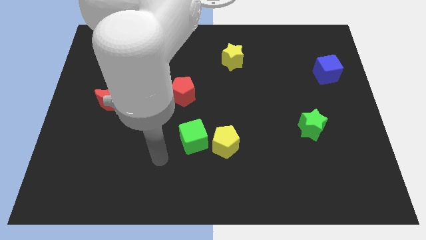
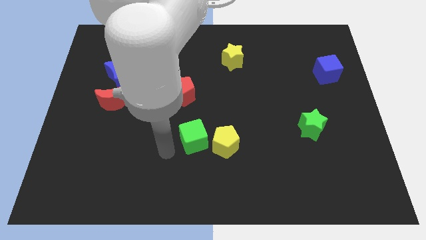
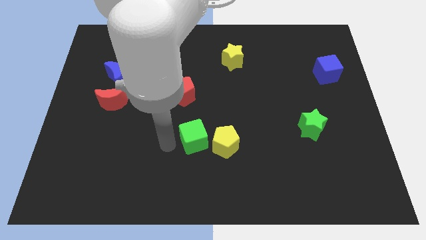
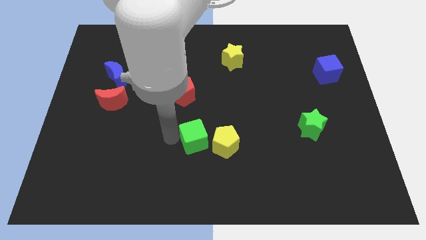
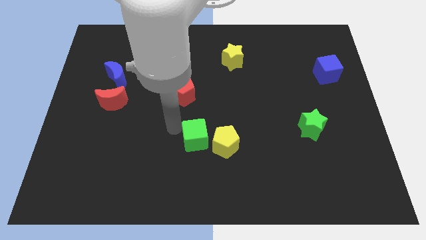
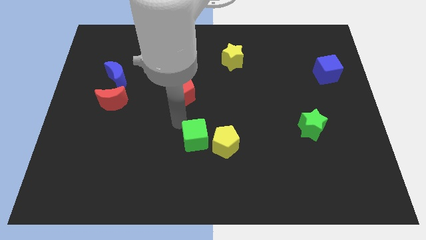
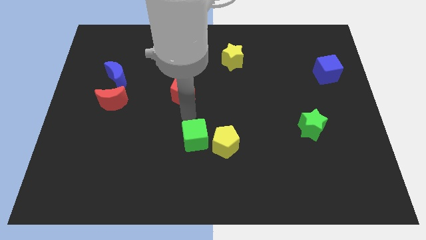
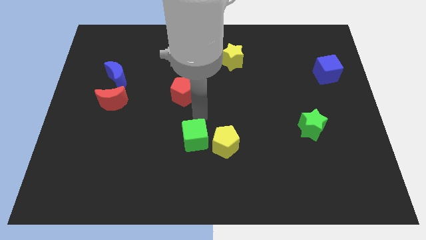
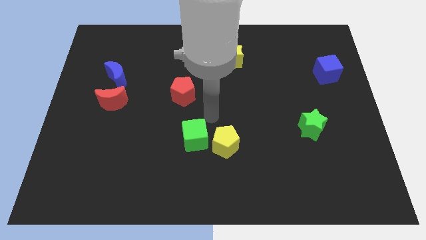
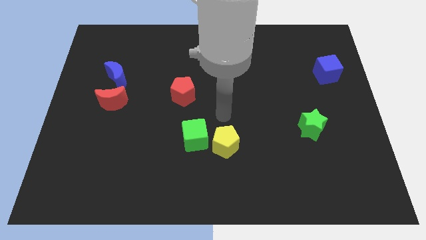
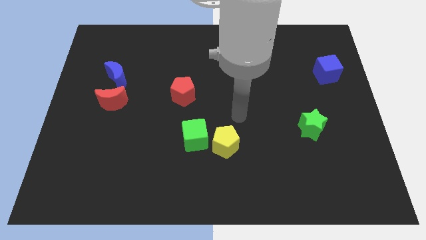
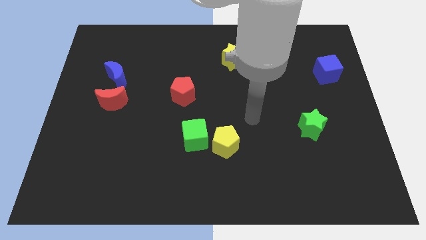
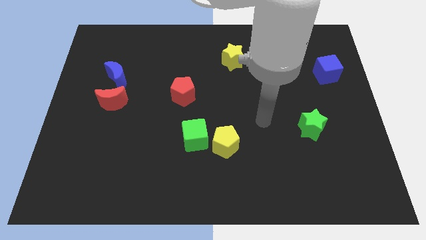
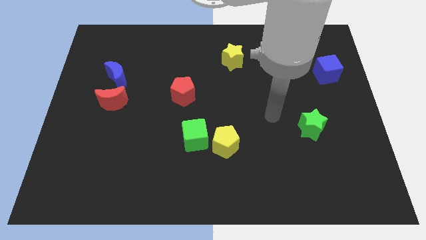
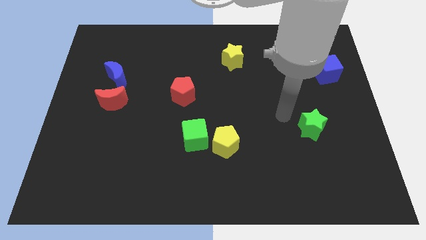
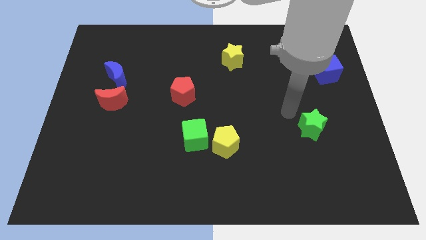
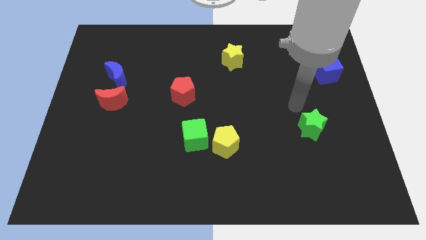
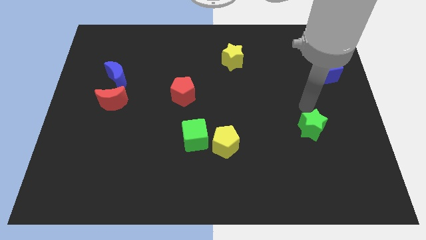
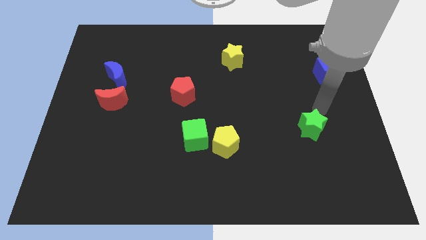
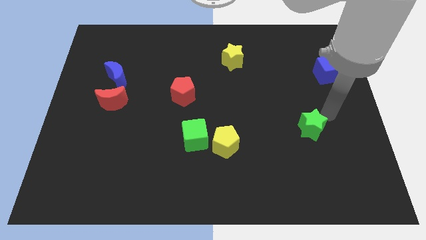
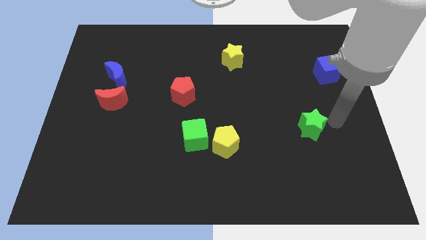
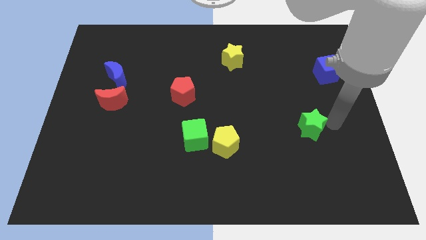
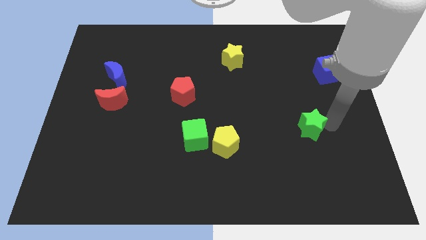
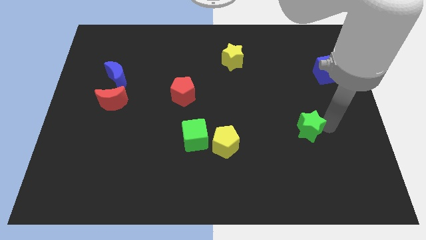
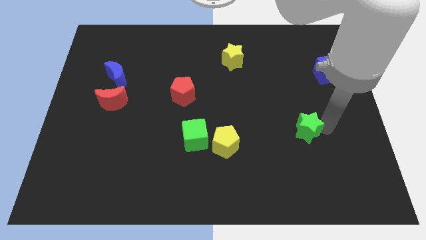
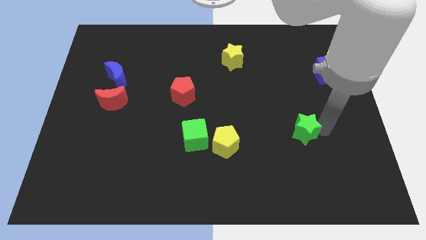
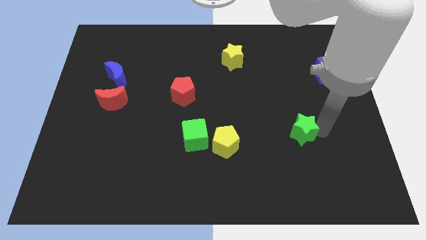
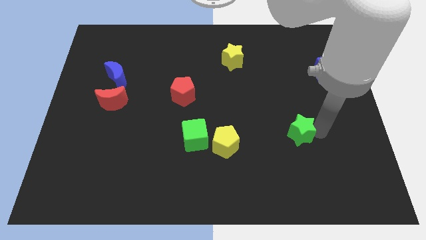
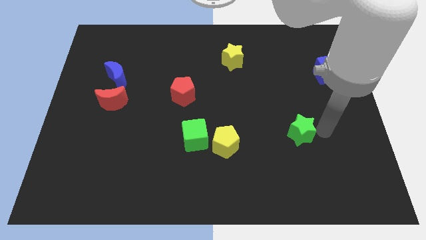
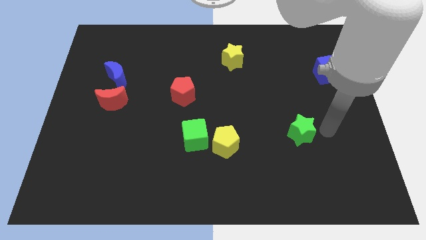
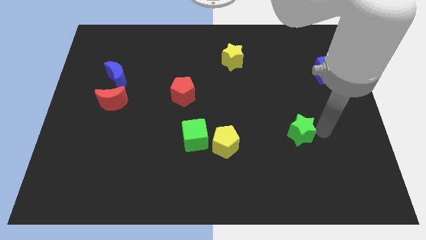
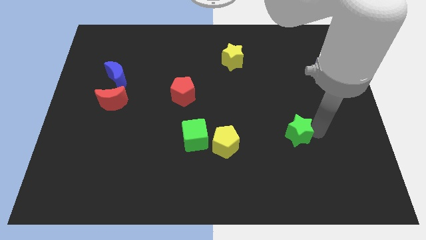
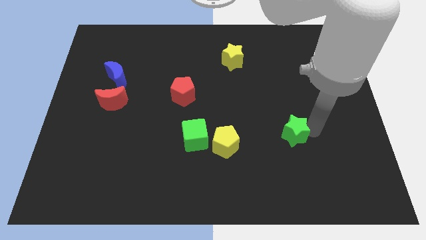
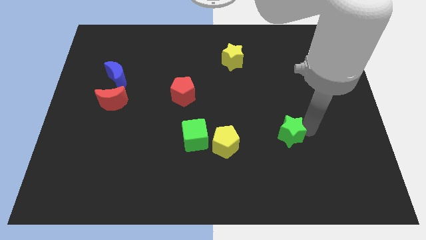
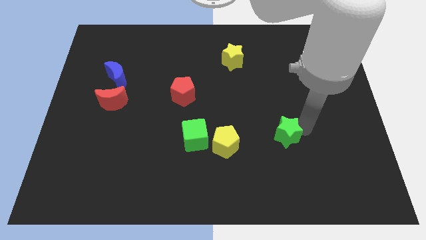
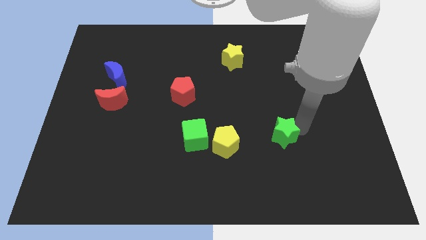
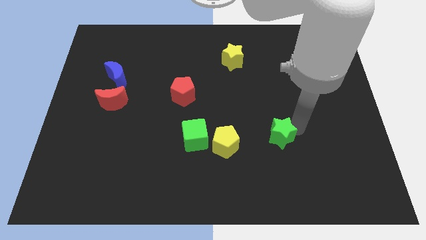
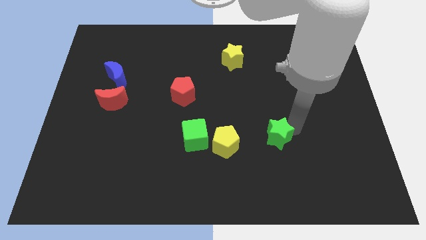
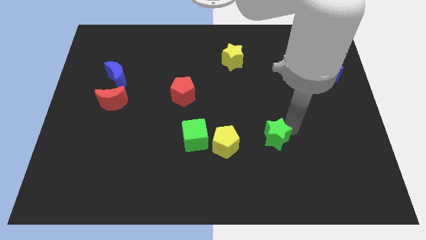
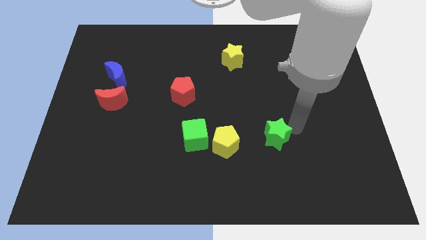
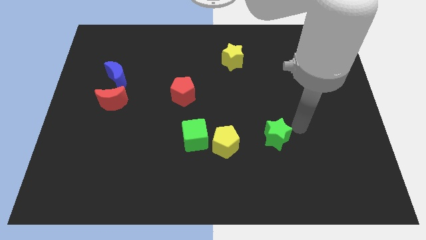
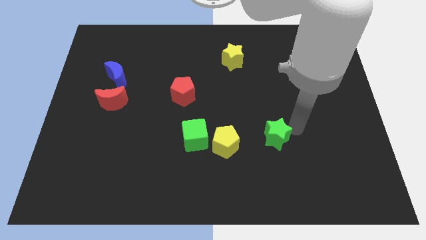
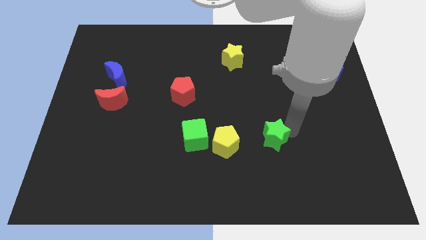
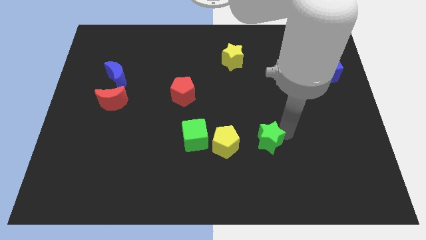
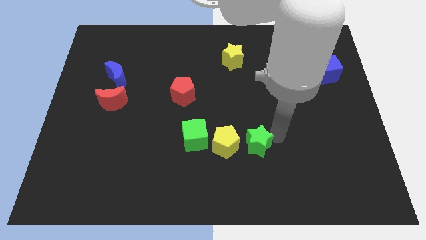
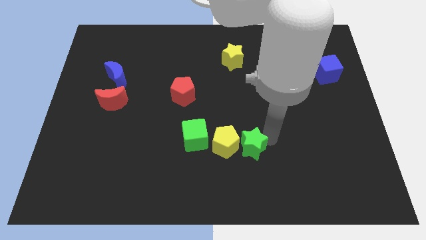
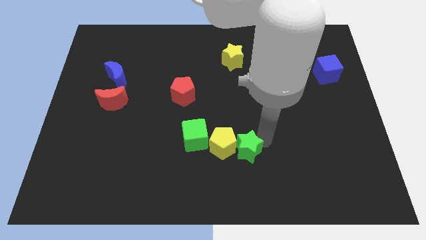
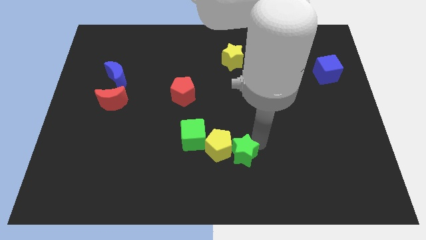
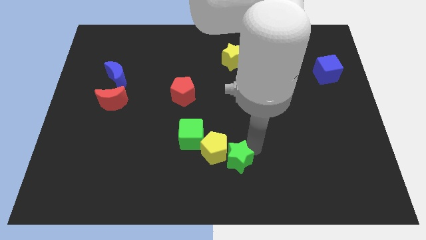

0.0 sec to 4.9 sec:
slide the green star to the bottom right side of the green cube

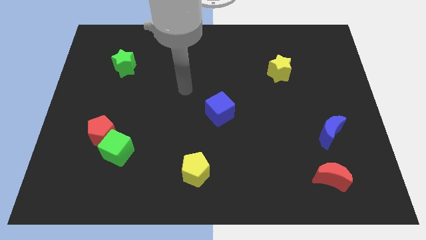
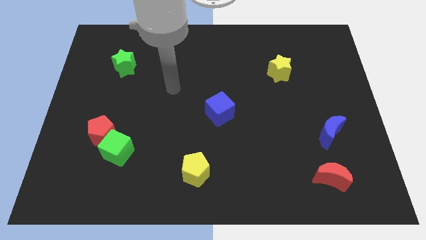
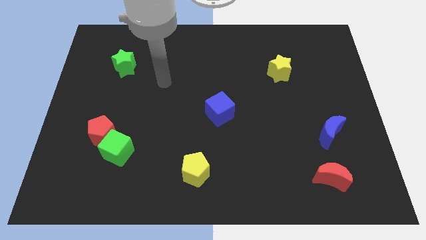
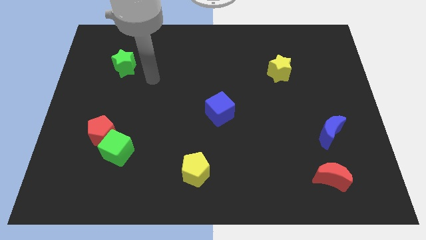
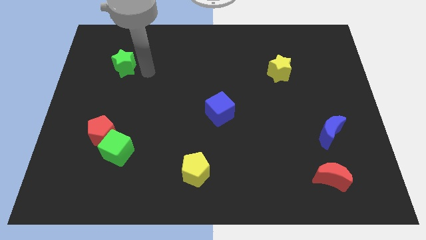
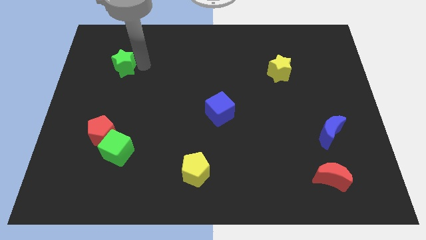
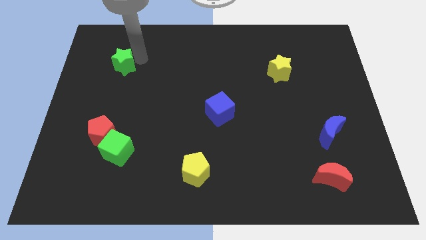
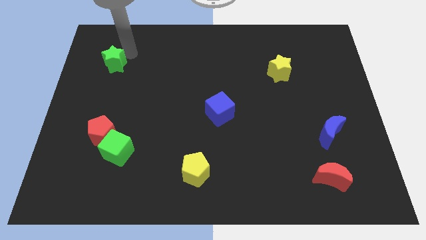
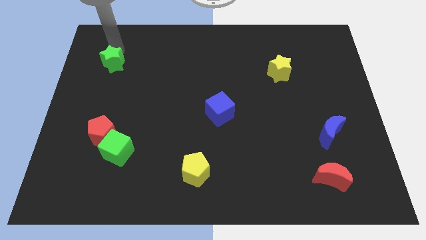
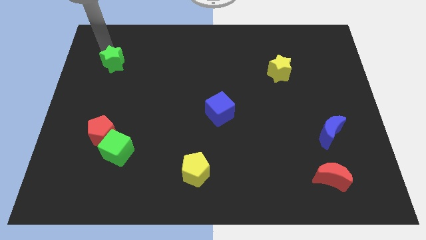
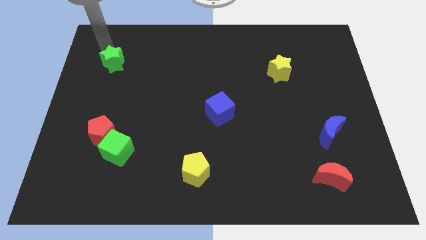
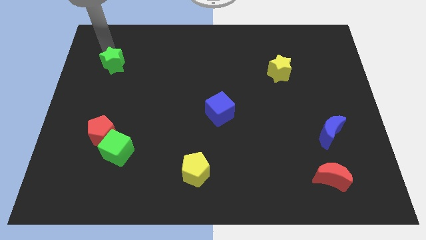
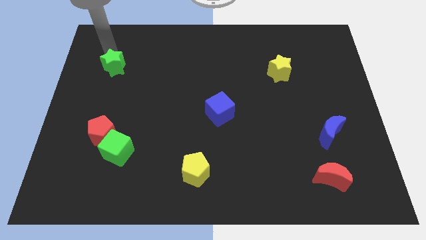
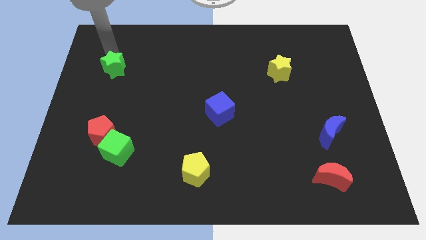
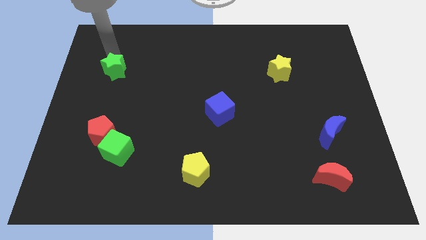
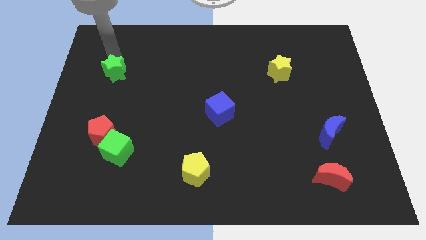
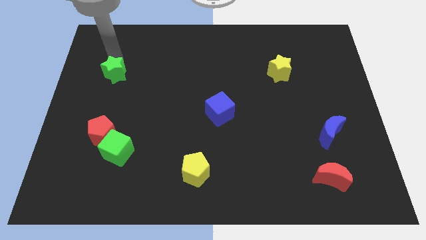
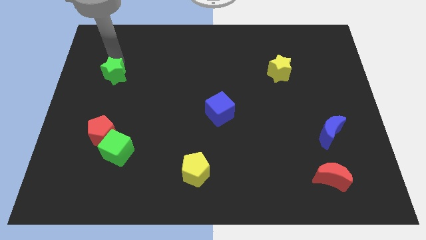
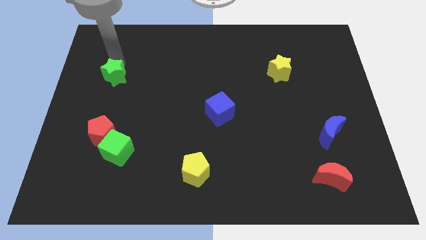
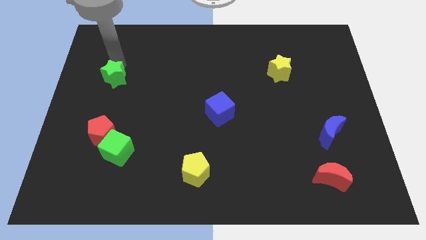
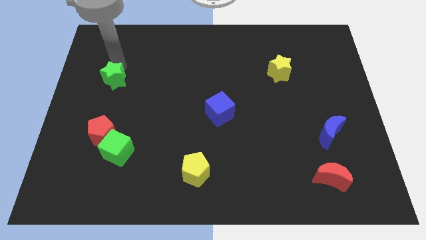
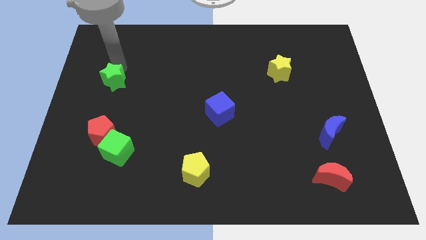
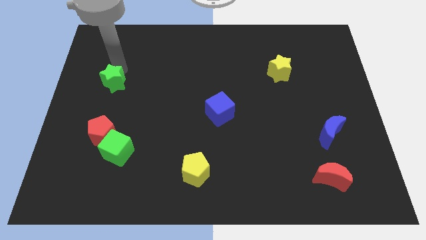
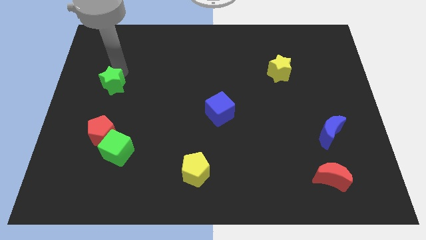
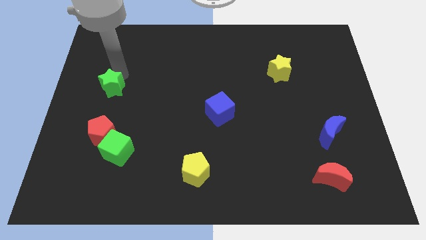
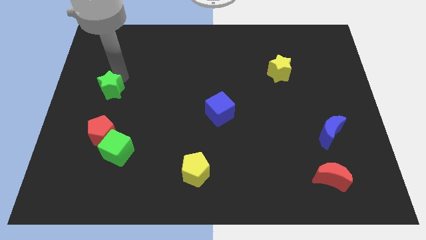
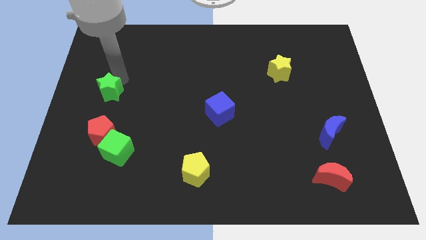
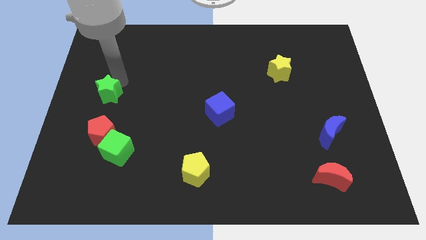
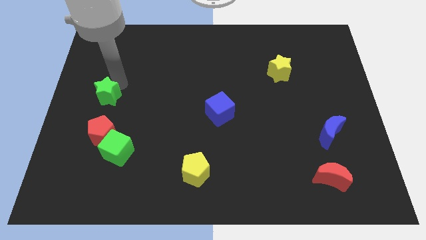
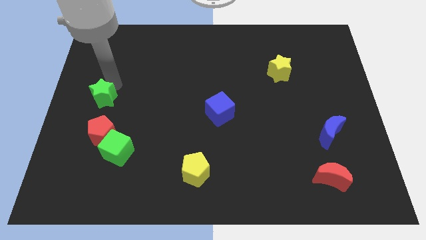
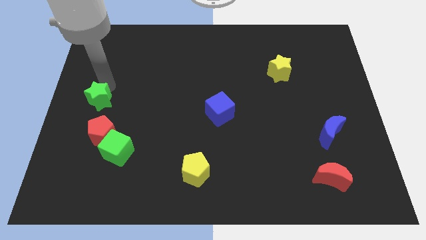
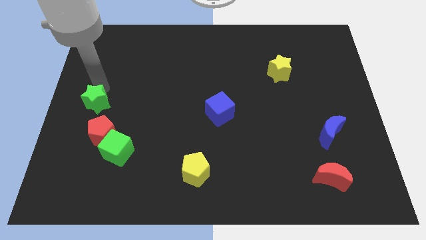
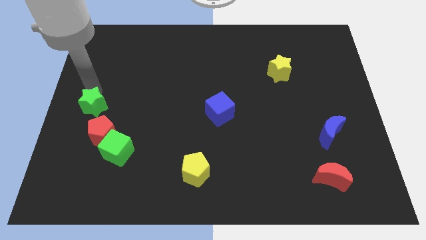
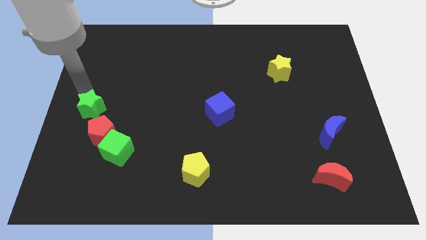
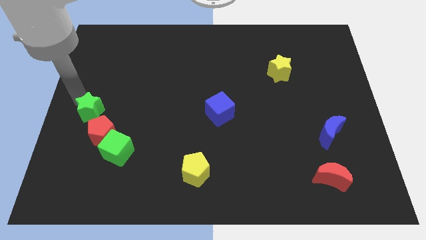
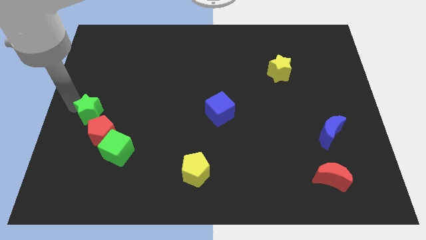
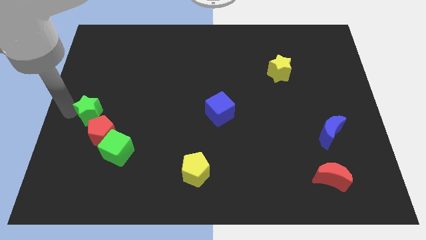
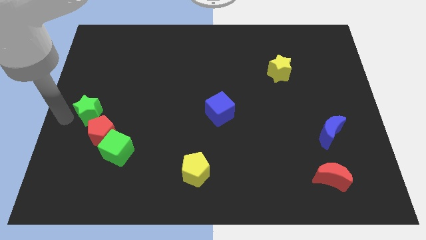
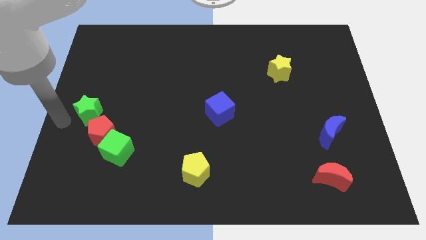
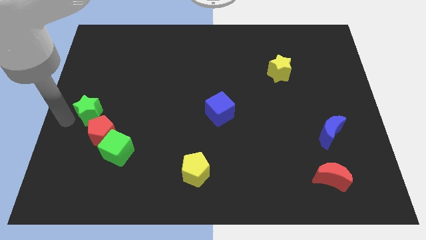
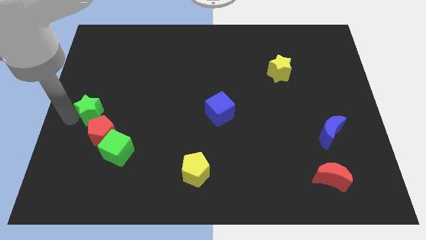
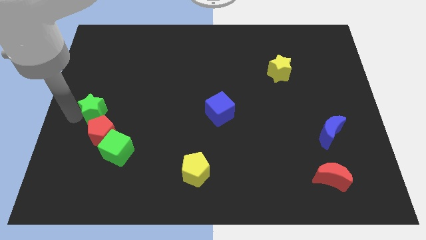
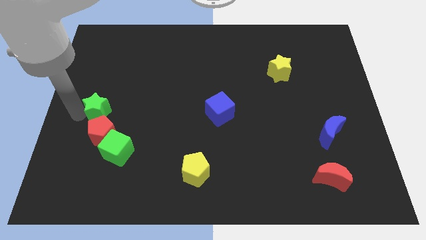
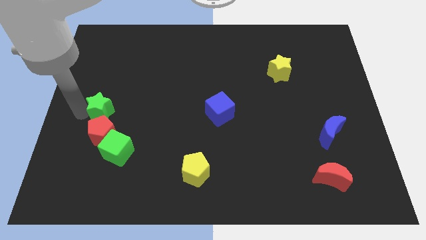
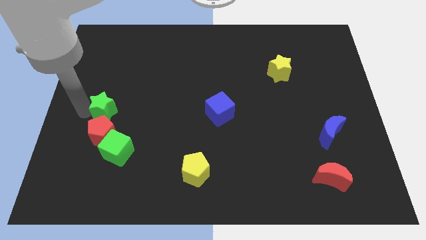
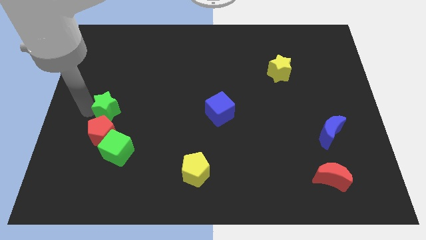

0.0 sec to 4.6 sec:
push the green star to the top right side of the red pentagon
